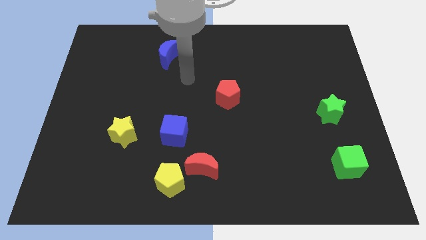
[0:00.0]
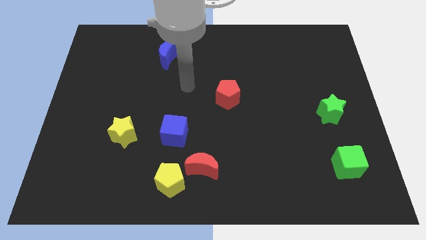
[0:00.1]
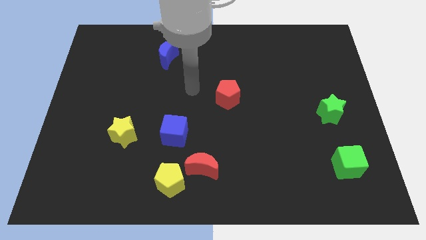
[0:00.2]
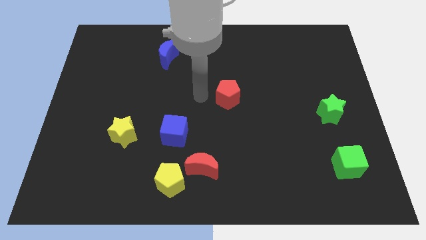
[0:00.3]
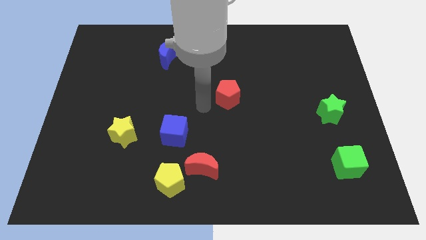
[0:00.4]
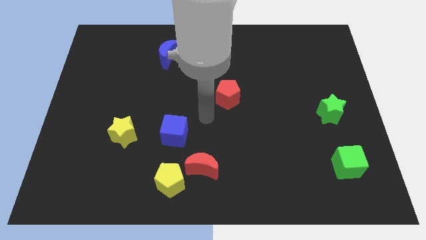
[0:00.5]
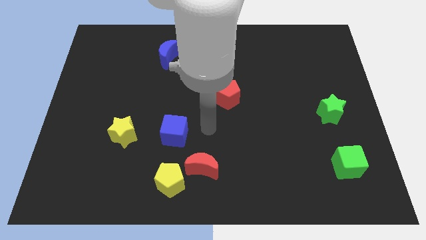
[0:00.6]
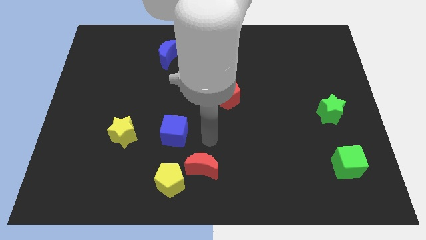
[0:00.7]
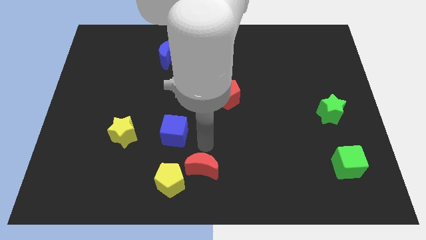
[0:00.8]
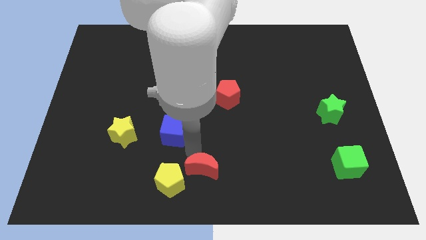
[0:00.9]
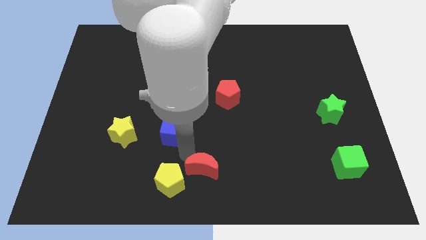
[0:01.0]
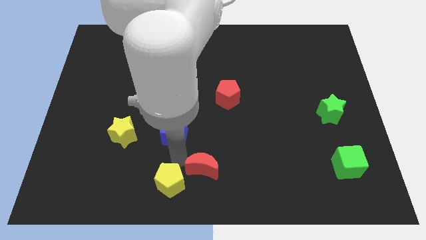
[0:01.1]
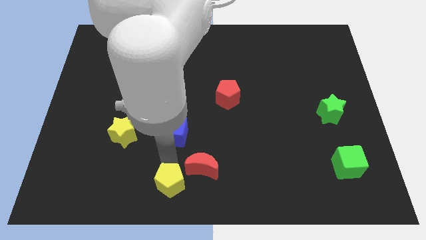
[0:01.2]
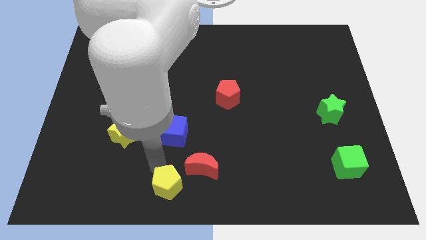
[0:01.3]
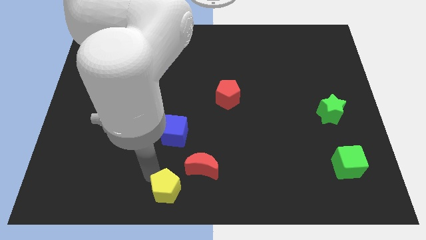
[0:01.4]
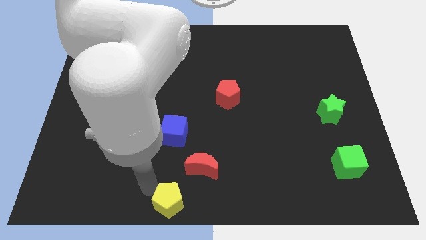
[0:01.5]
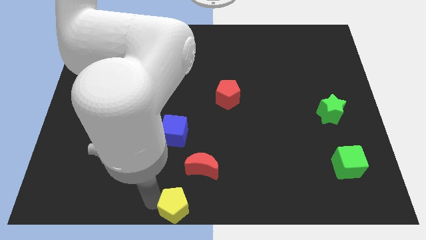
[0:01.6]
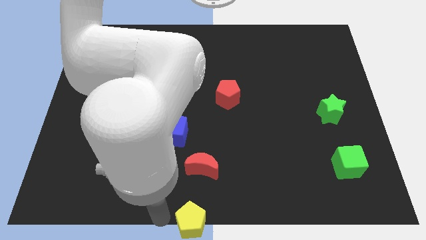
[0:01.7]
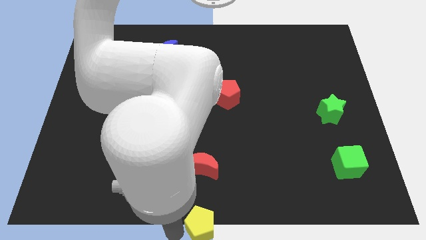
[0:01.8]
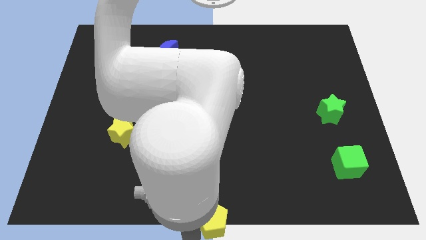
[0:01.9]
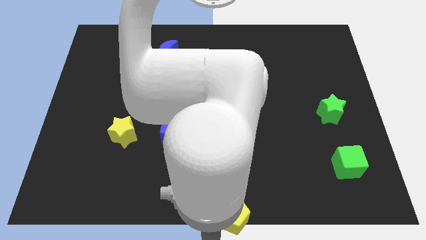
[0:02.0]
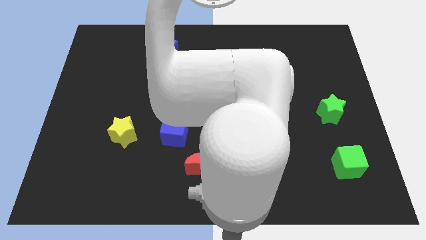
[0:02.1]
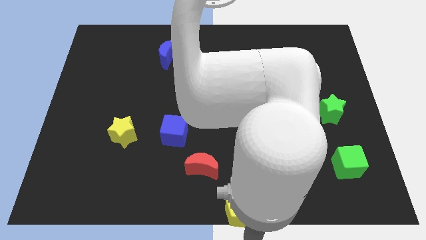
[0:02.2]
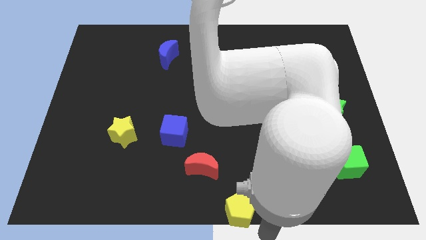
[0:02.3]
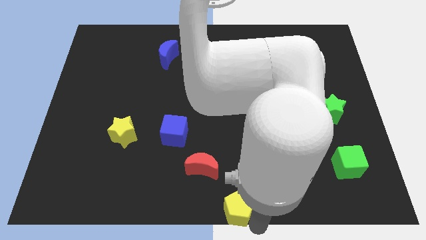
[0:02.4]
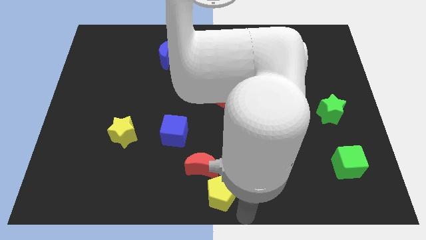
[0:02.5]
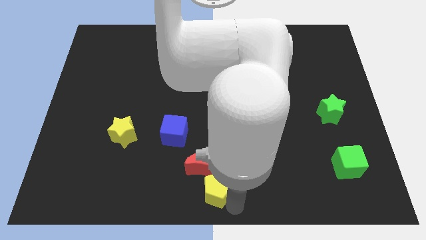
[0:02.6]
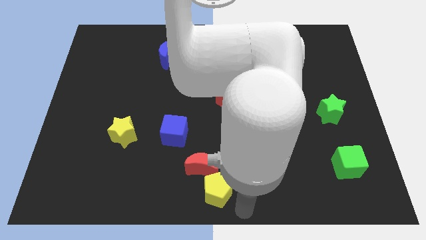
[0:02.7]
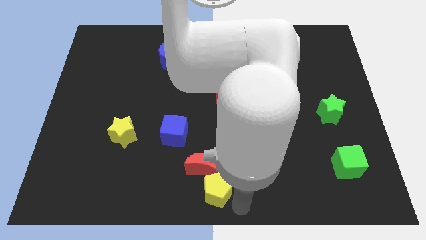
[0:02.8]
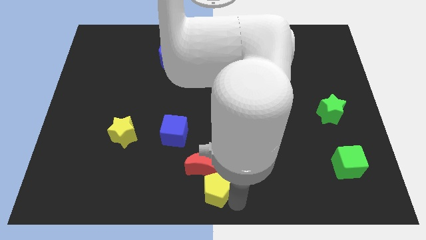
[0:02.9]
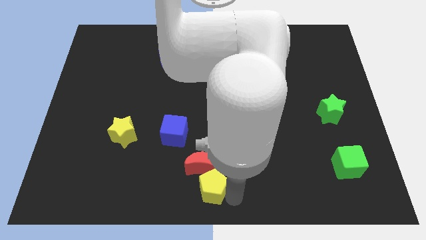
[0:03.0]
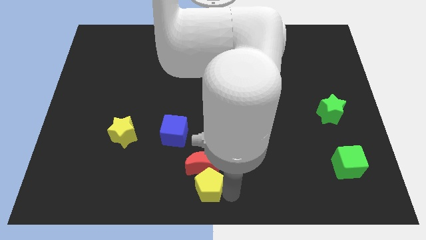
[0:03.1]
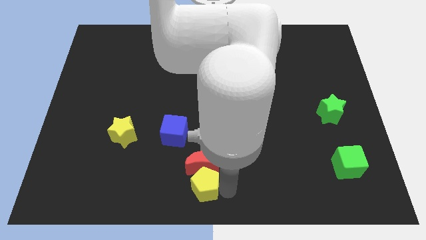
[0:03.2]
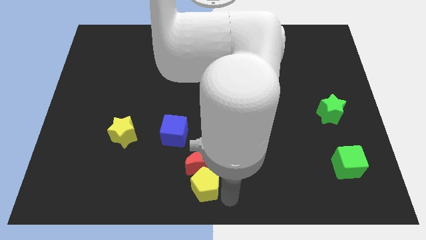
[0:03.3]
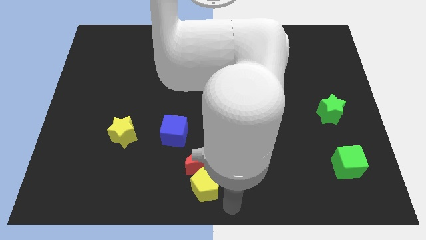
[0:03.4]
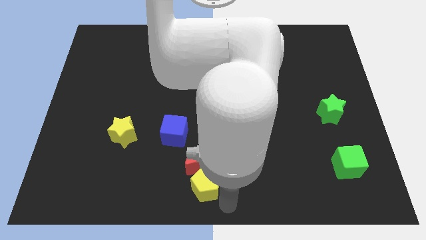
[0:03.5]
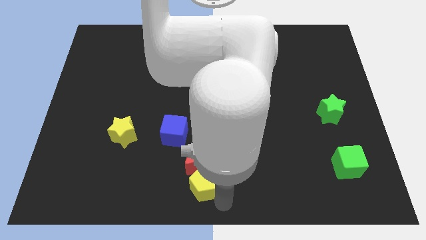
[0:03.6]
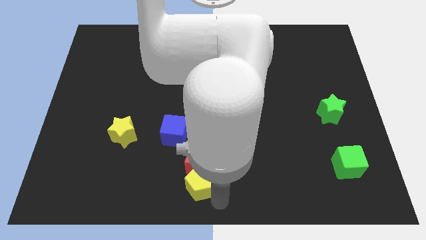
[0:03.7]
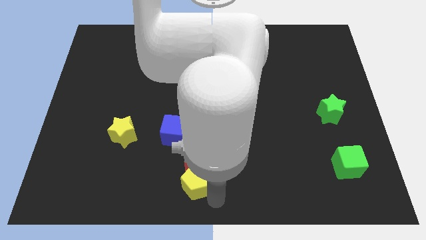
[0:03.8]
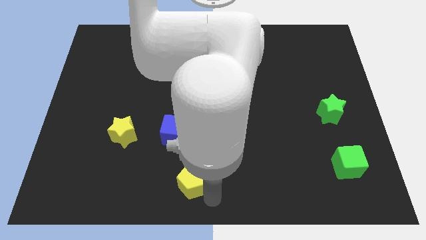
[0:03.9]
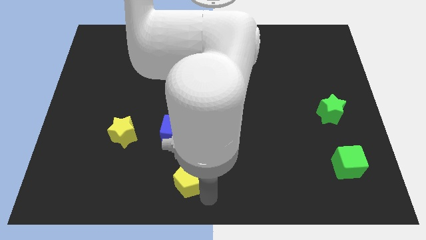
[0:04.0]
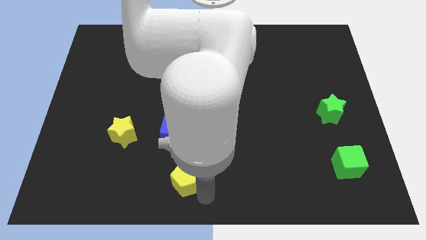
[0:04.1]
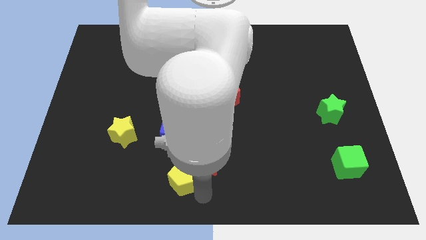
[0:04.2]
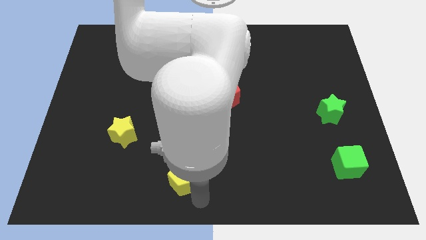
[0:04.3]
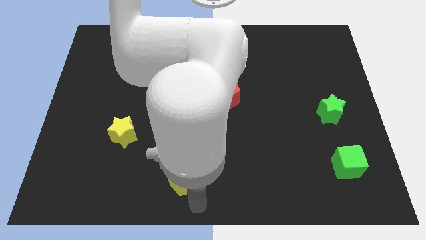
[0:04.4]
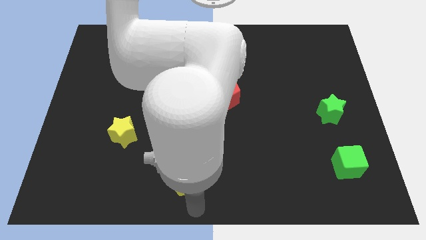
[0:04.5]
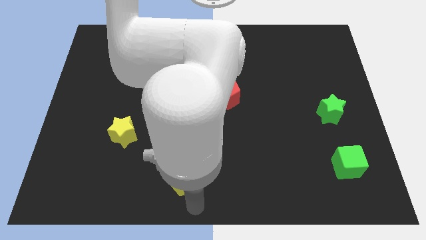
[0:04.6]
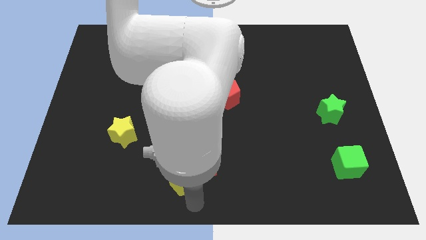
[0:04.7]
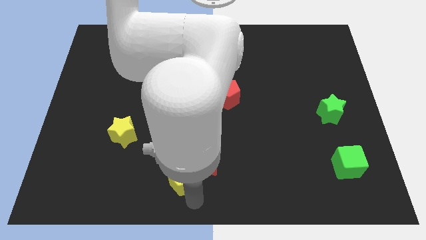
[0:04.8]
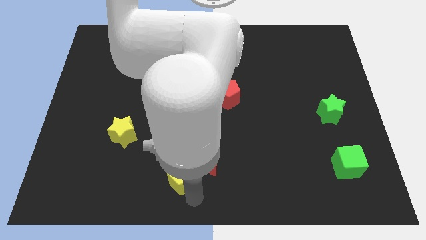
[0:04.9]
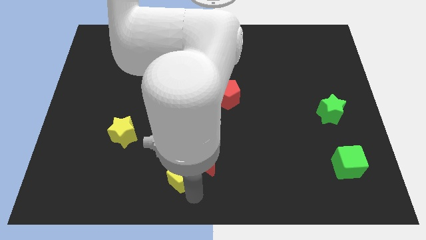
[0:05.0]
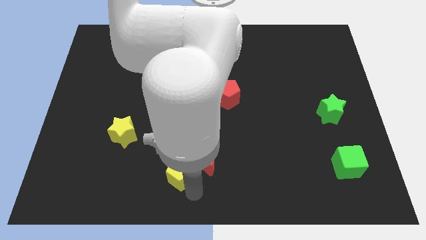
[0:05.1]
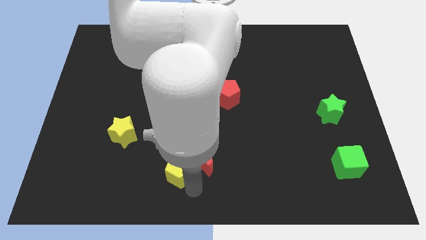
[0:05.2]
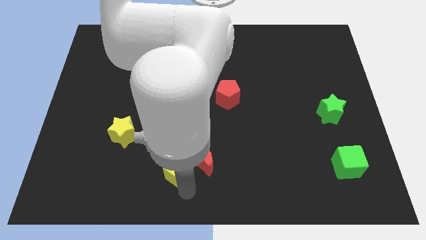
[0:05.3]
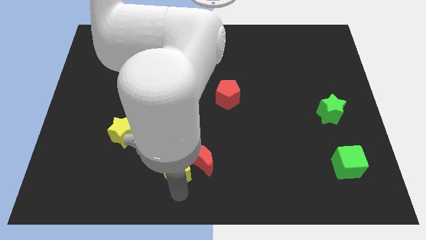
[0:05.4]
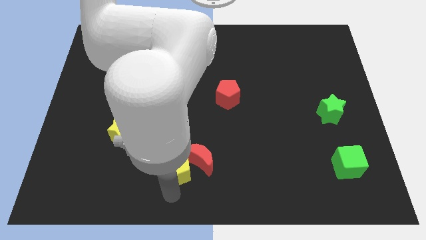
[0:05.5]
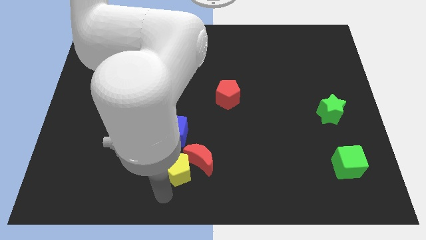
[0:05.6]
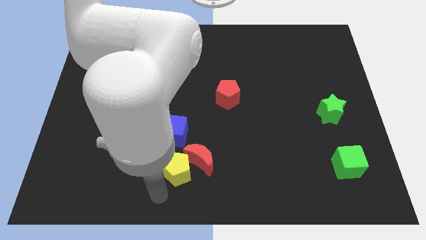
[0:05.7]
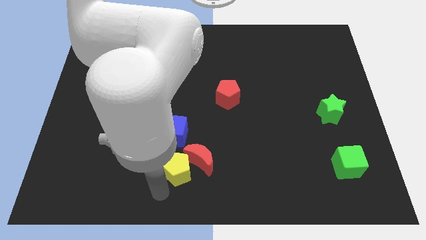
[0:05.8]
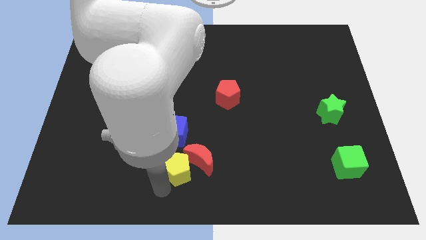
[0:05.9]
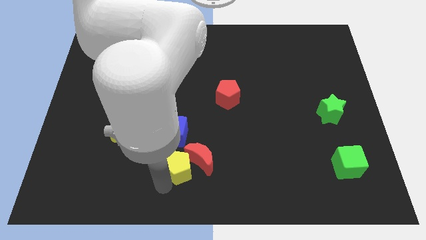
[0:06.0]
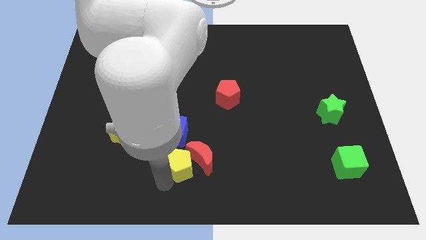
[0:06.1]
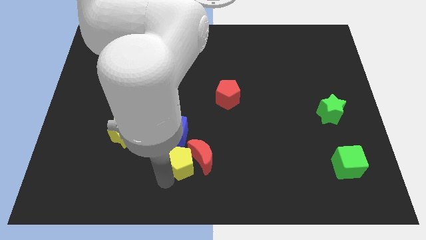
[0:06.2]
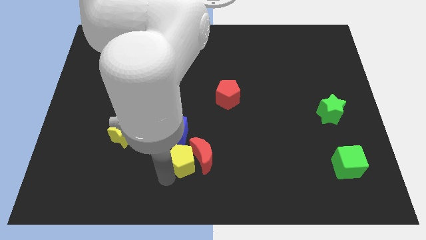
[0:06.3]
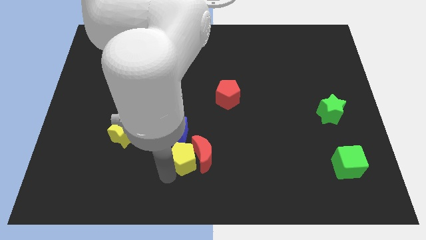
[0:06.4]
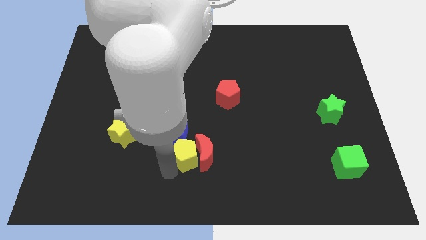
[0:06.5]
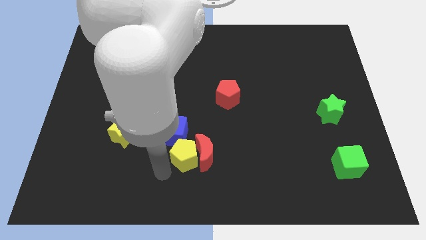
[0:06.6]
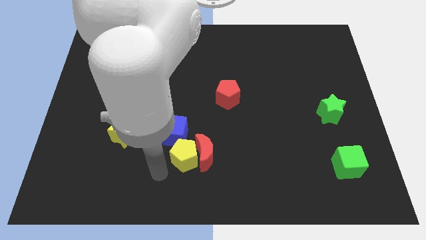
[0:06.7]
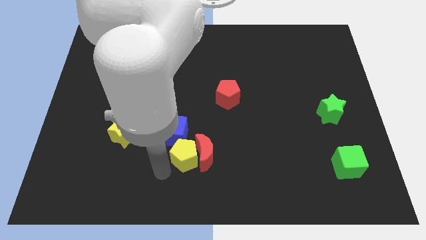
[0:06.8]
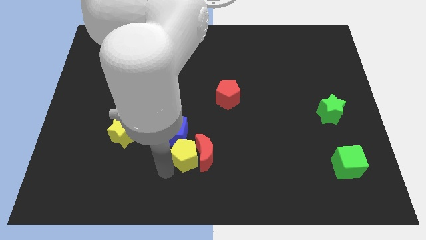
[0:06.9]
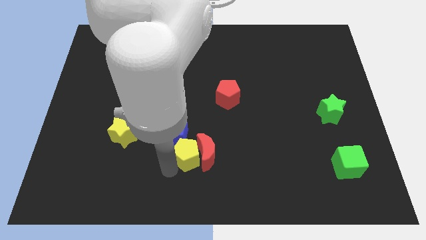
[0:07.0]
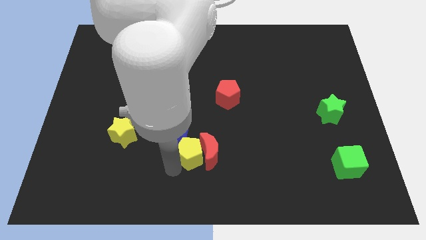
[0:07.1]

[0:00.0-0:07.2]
slide the yellow pentagon upwards and right diagonally a little bit

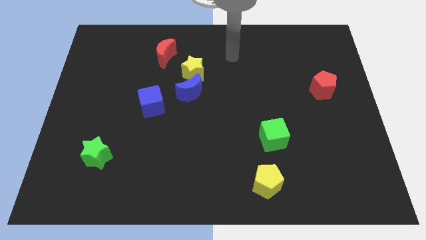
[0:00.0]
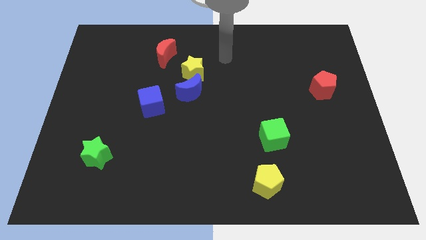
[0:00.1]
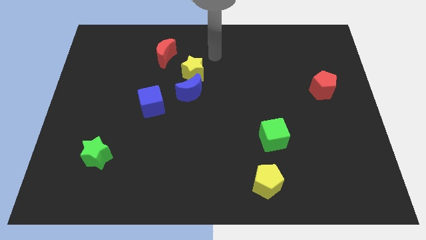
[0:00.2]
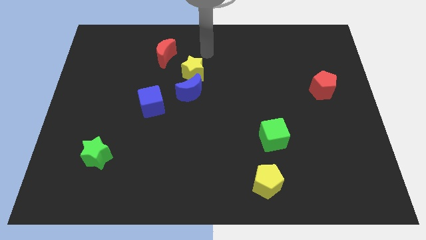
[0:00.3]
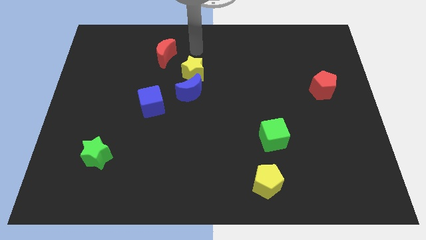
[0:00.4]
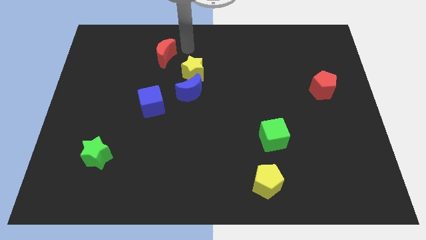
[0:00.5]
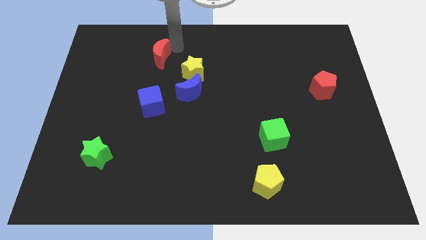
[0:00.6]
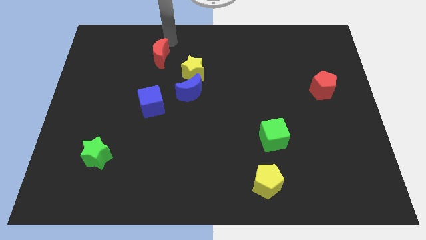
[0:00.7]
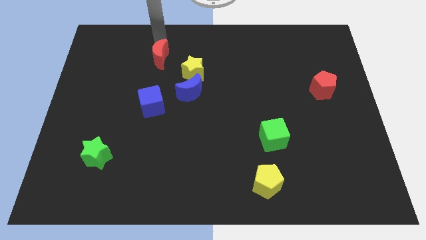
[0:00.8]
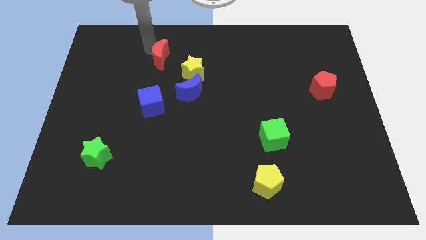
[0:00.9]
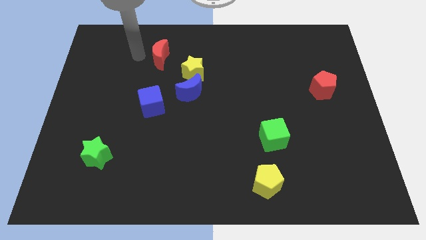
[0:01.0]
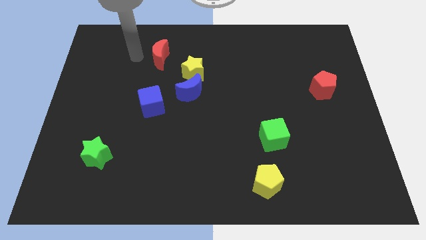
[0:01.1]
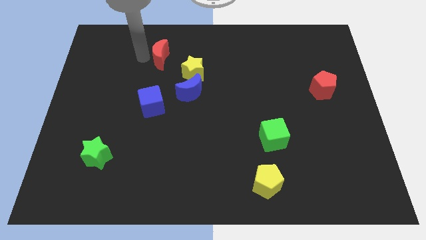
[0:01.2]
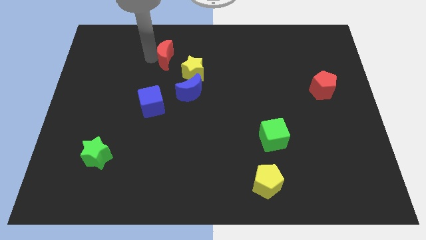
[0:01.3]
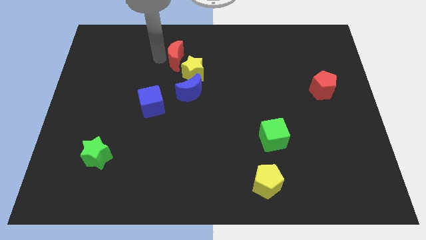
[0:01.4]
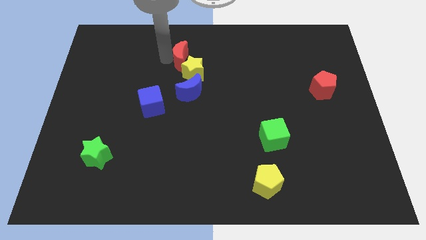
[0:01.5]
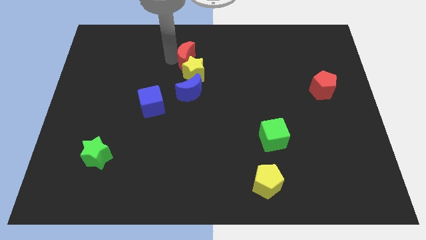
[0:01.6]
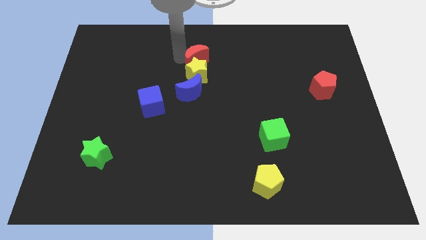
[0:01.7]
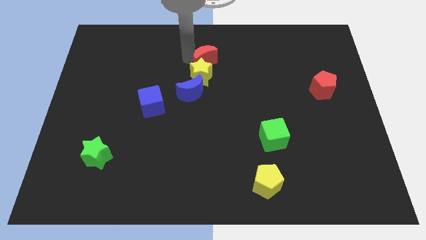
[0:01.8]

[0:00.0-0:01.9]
push the red moon downwards and to the right diagonally slightly
